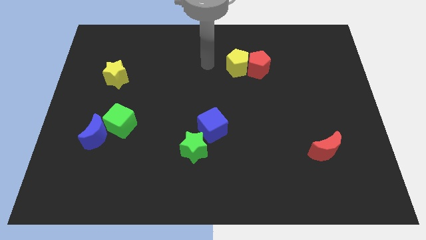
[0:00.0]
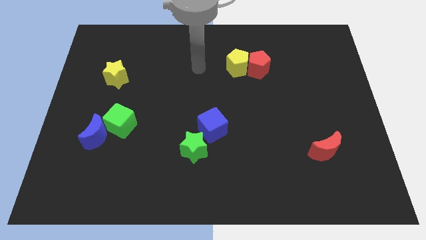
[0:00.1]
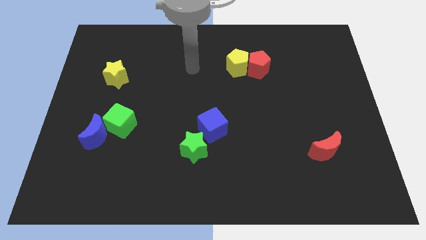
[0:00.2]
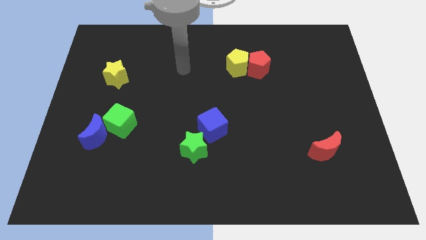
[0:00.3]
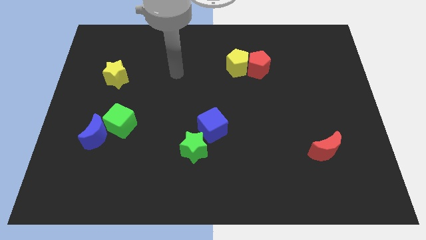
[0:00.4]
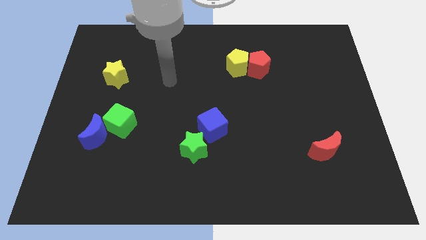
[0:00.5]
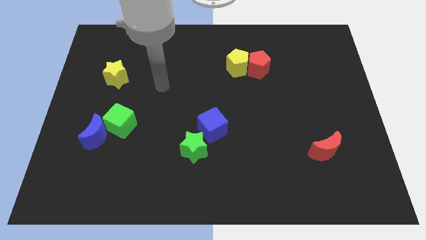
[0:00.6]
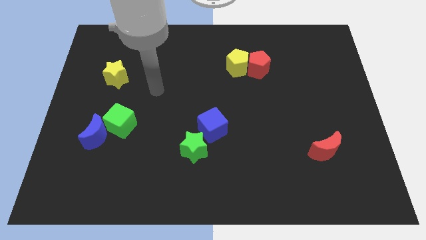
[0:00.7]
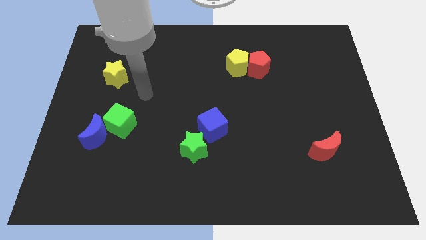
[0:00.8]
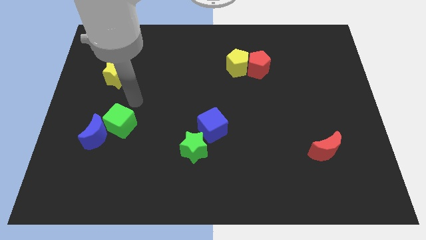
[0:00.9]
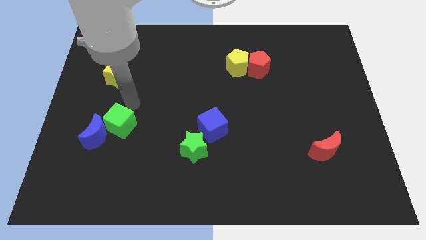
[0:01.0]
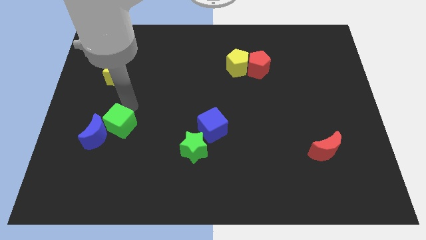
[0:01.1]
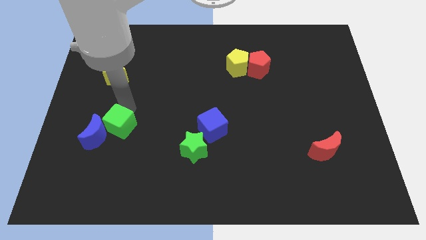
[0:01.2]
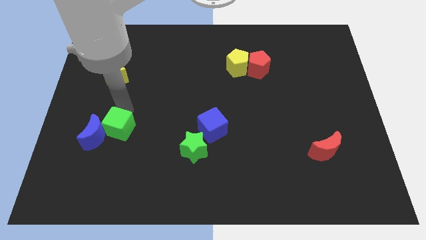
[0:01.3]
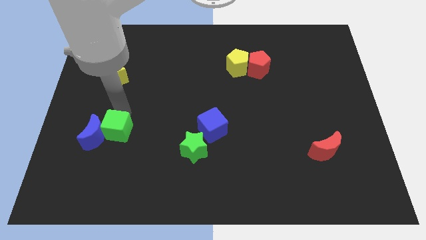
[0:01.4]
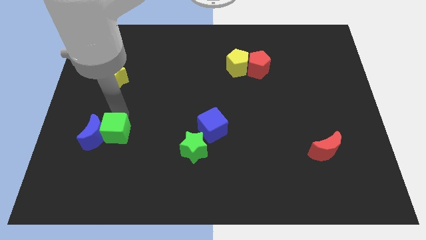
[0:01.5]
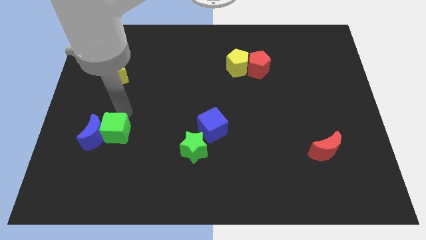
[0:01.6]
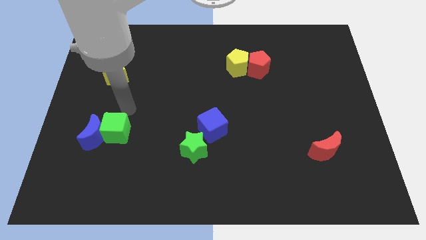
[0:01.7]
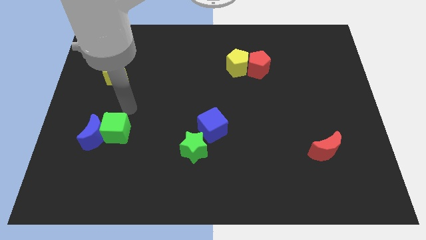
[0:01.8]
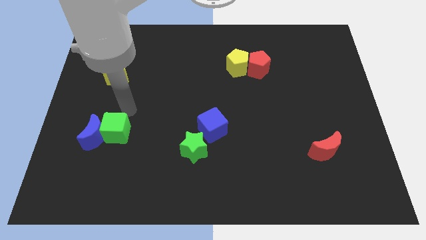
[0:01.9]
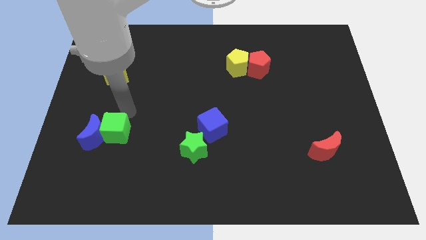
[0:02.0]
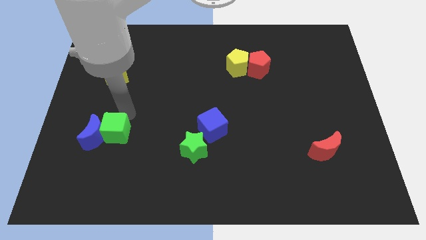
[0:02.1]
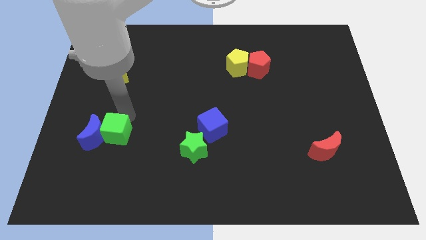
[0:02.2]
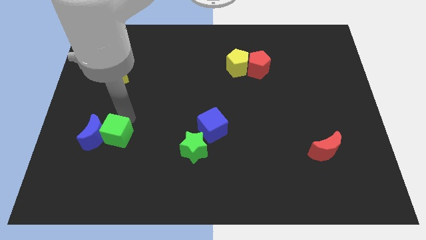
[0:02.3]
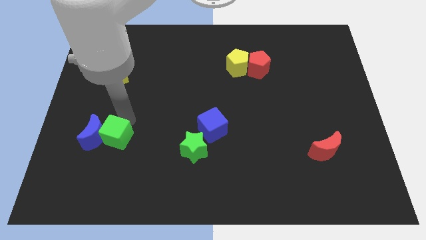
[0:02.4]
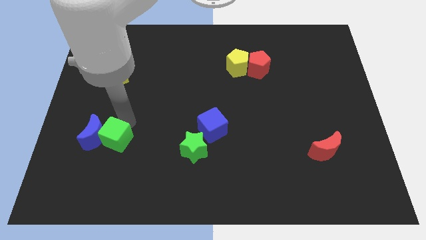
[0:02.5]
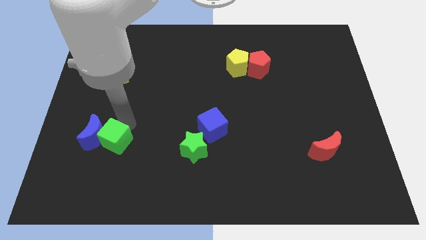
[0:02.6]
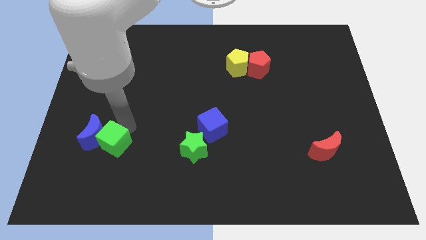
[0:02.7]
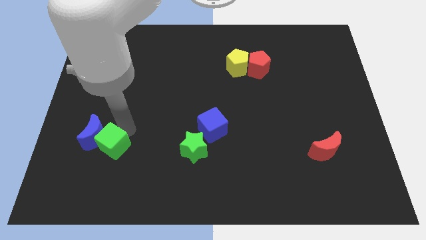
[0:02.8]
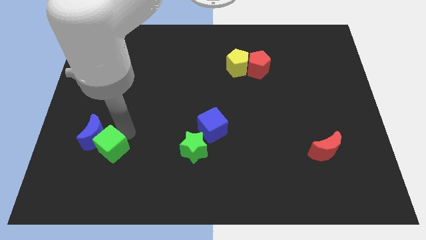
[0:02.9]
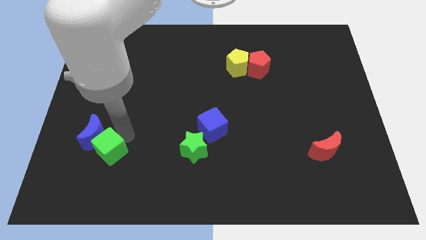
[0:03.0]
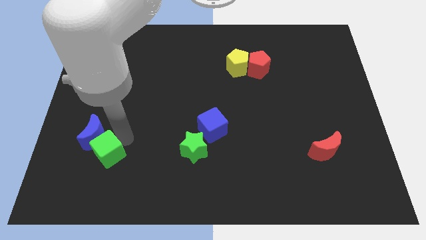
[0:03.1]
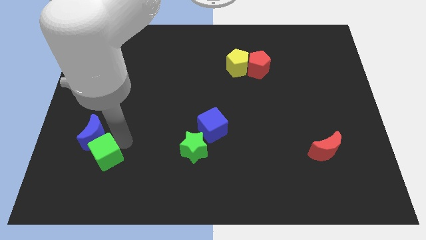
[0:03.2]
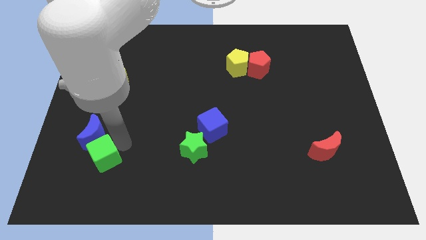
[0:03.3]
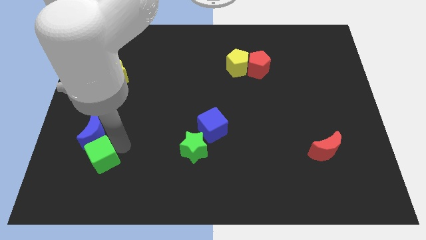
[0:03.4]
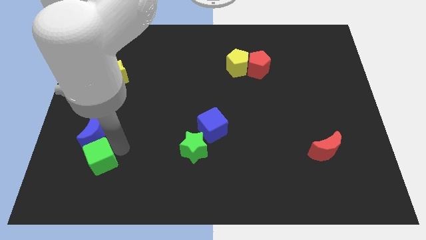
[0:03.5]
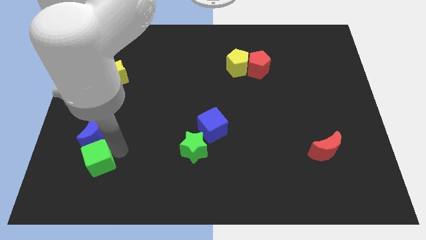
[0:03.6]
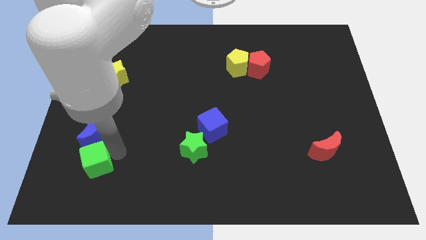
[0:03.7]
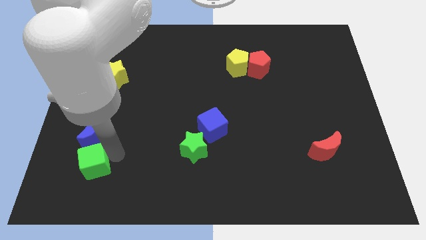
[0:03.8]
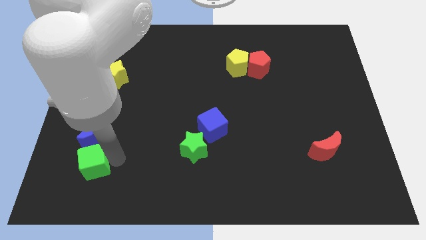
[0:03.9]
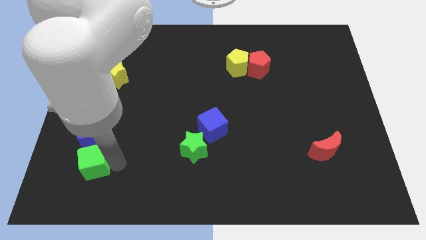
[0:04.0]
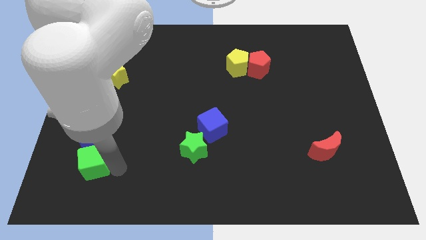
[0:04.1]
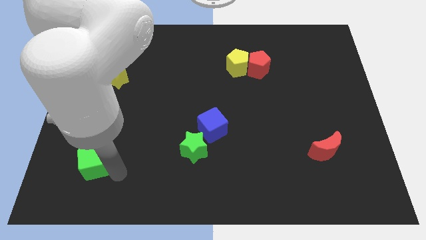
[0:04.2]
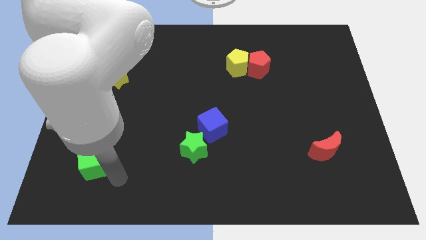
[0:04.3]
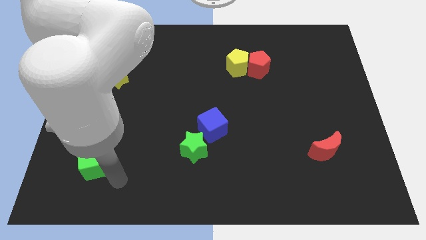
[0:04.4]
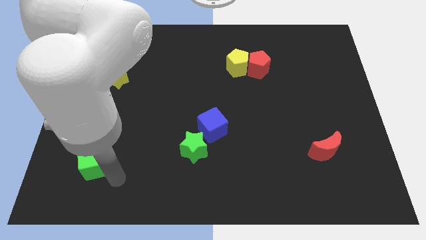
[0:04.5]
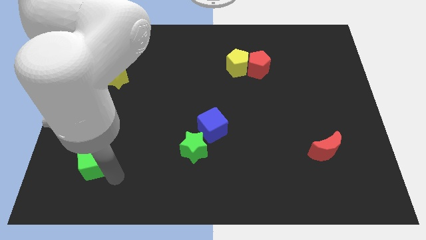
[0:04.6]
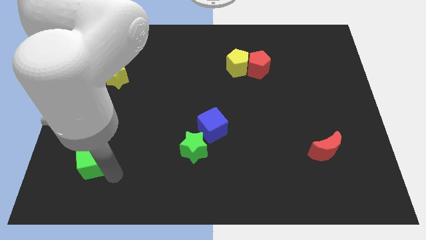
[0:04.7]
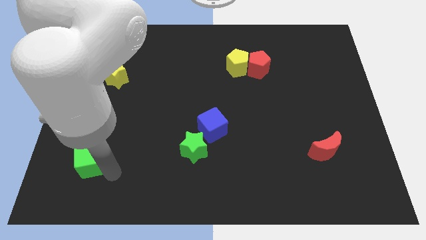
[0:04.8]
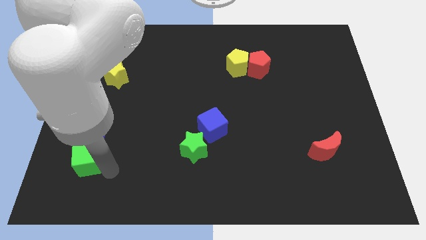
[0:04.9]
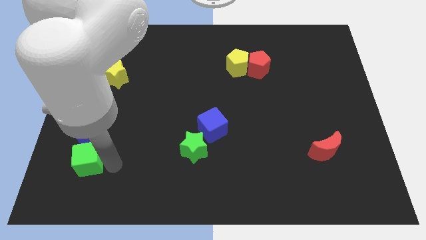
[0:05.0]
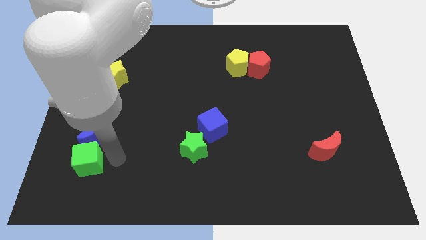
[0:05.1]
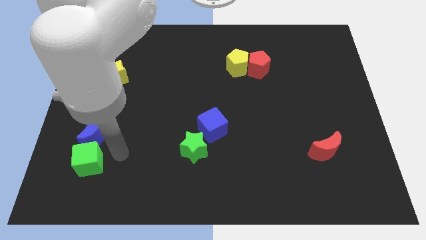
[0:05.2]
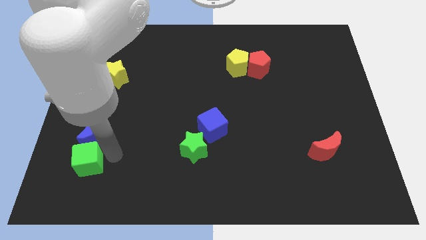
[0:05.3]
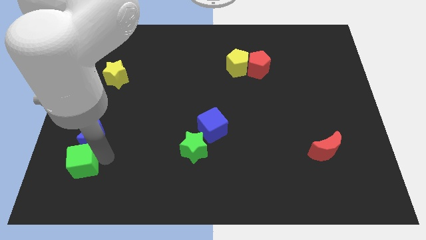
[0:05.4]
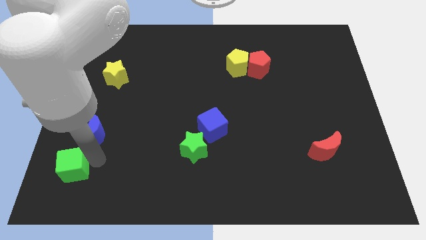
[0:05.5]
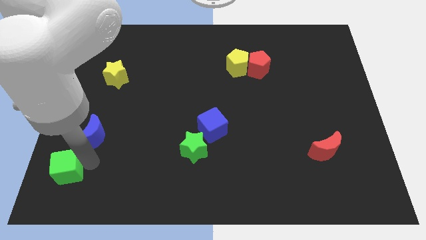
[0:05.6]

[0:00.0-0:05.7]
push the green cube to the lower left corner

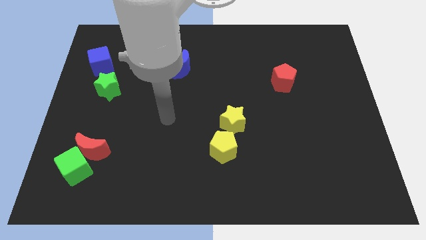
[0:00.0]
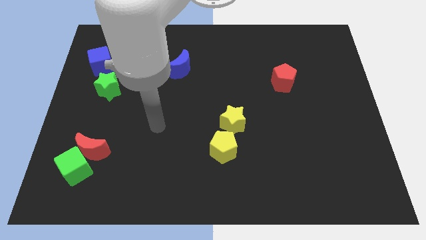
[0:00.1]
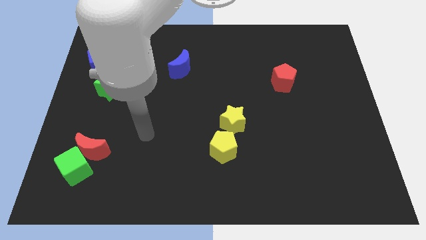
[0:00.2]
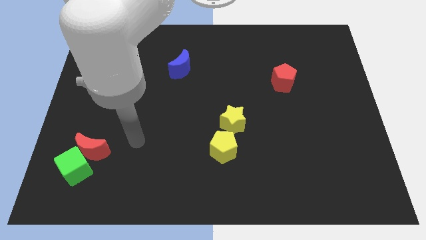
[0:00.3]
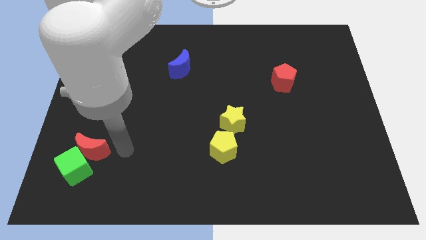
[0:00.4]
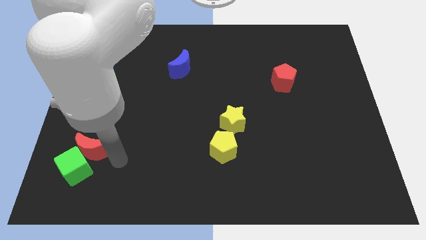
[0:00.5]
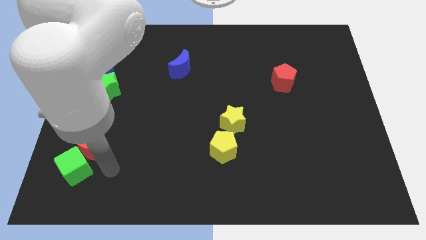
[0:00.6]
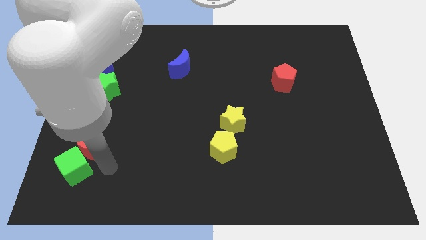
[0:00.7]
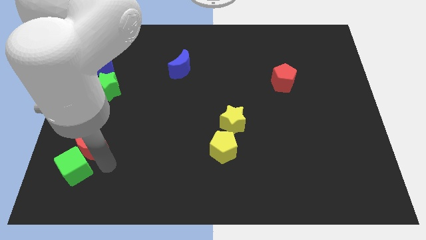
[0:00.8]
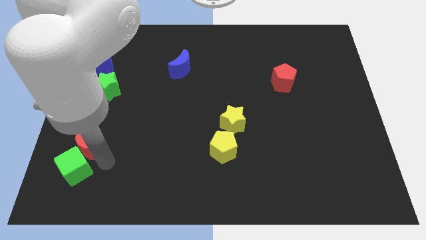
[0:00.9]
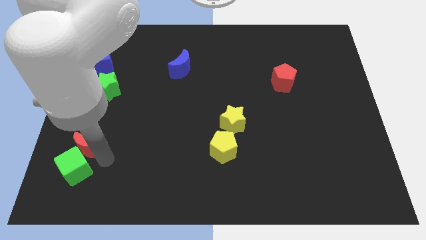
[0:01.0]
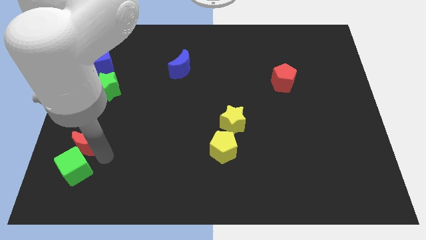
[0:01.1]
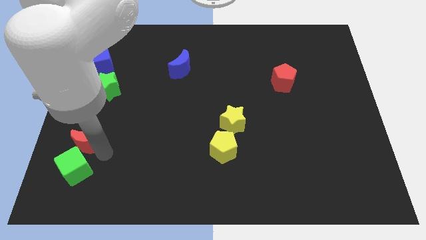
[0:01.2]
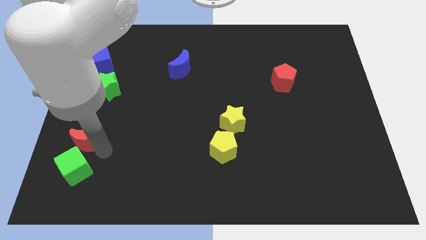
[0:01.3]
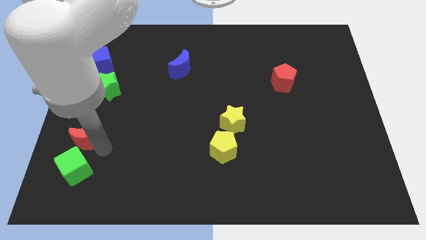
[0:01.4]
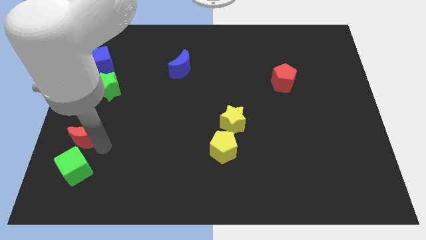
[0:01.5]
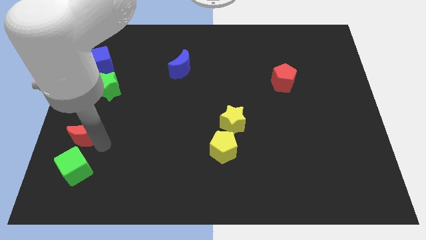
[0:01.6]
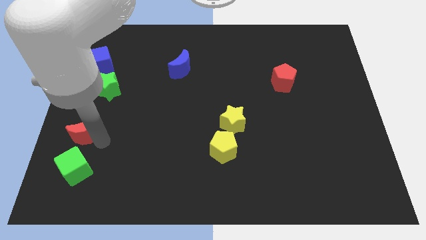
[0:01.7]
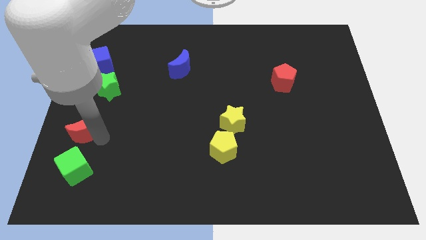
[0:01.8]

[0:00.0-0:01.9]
put the red moon to the left side of the board
